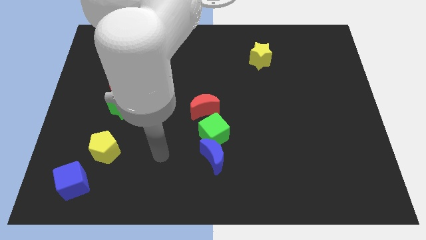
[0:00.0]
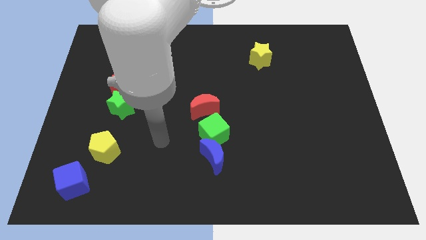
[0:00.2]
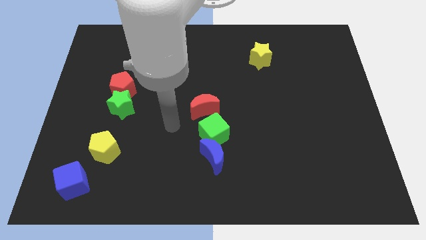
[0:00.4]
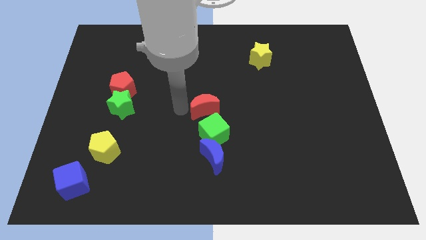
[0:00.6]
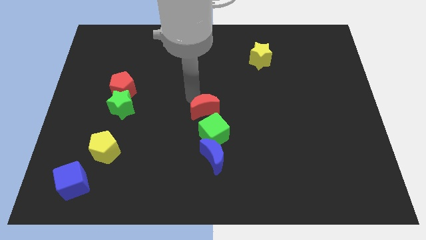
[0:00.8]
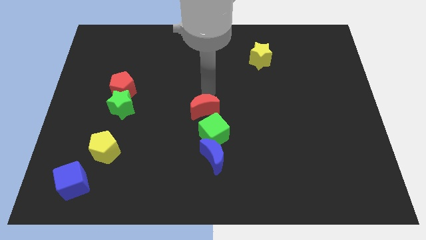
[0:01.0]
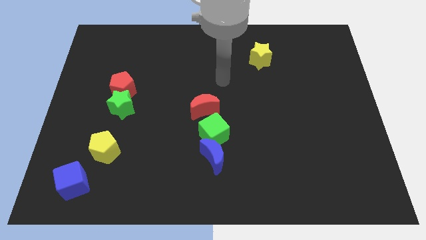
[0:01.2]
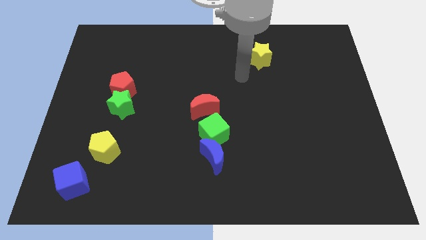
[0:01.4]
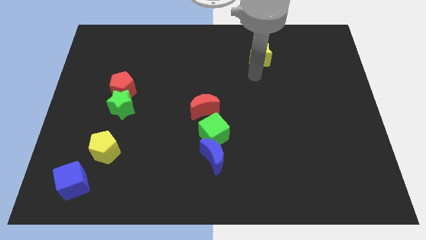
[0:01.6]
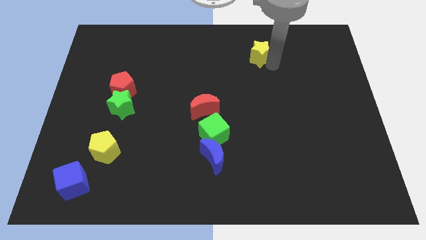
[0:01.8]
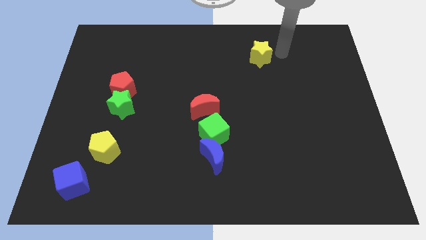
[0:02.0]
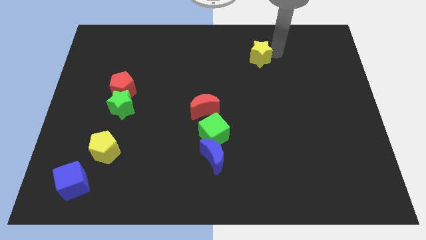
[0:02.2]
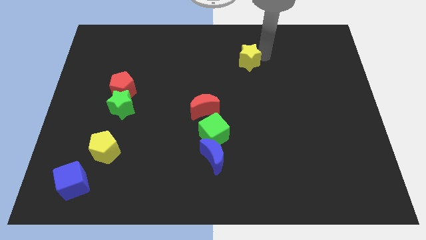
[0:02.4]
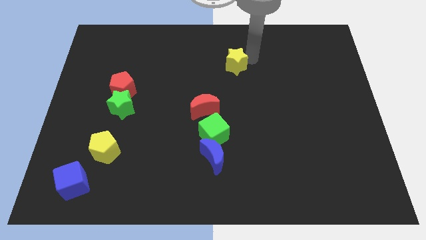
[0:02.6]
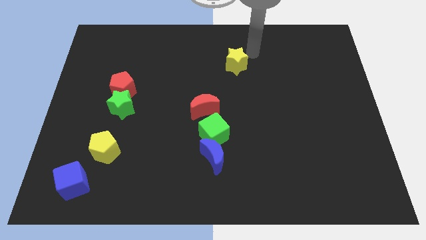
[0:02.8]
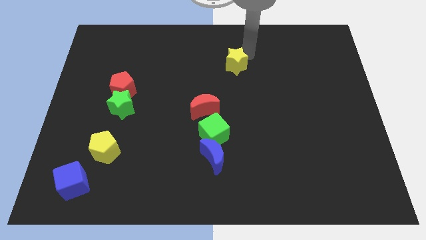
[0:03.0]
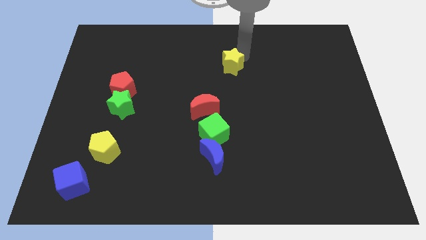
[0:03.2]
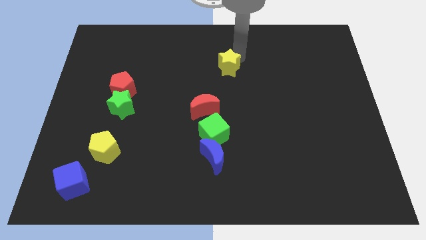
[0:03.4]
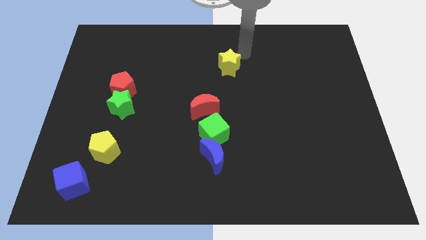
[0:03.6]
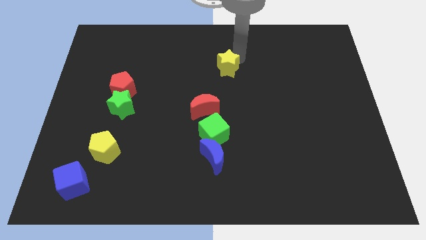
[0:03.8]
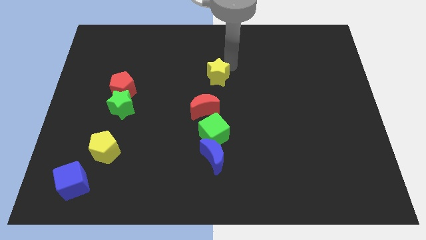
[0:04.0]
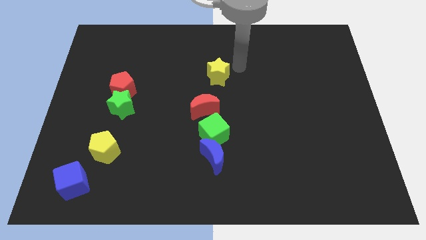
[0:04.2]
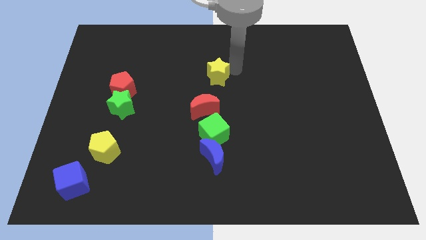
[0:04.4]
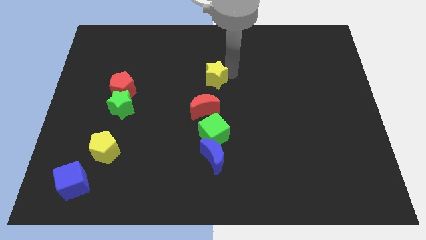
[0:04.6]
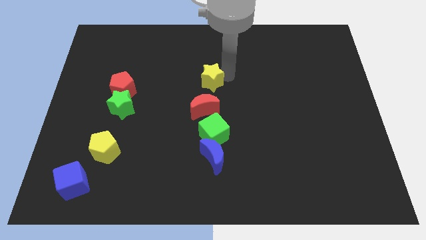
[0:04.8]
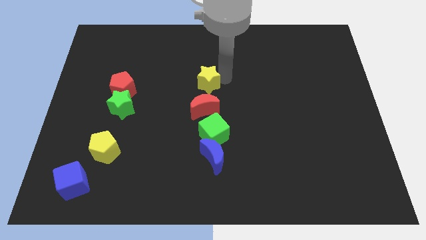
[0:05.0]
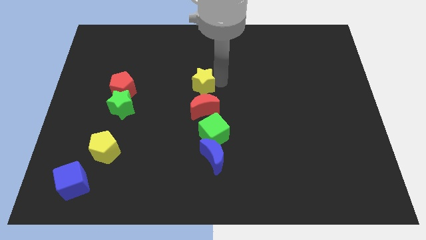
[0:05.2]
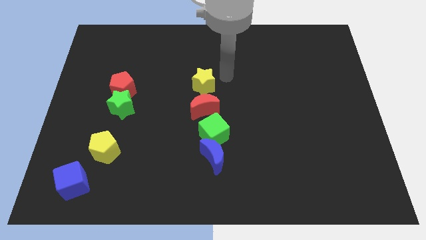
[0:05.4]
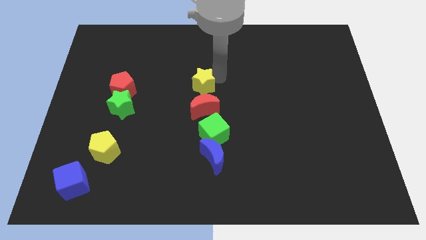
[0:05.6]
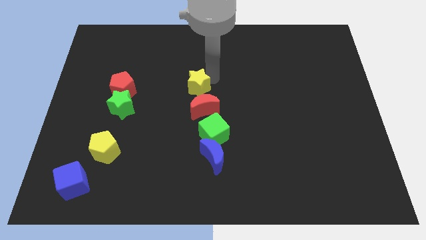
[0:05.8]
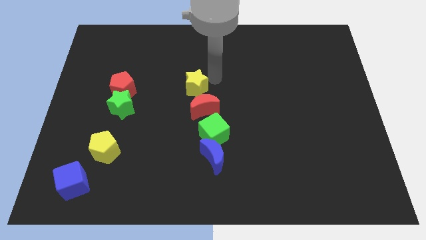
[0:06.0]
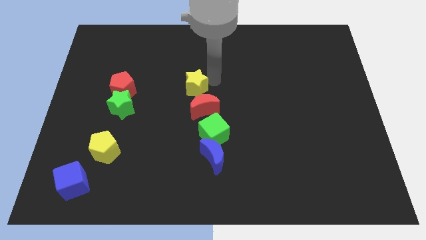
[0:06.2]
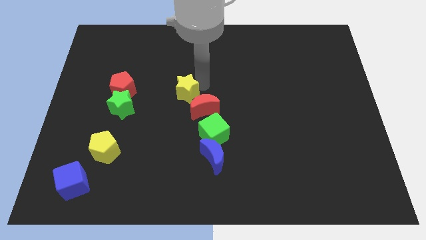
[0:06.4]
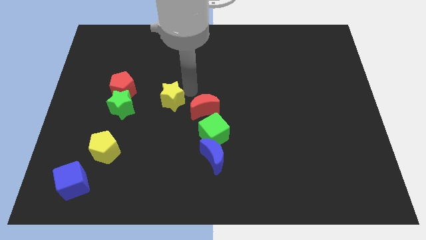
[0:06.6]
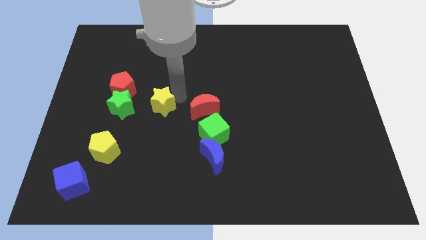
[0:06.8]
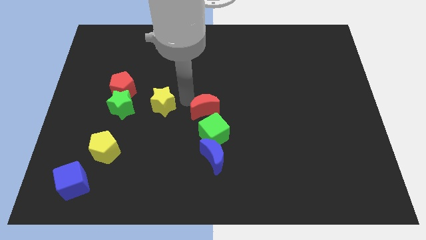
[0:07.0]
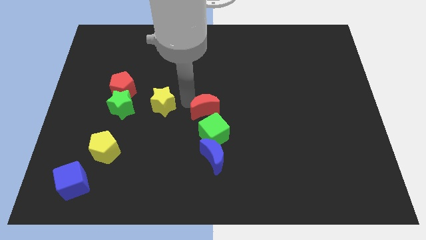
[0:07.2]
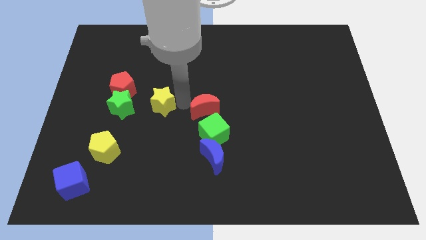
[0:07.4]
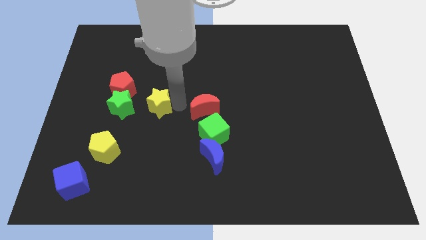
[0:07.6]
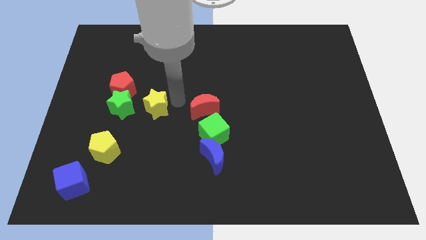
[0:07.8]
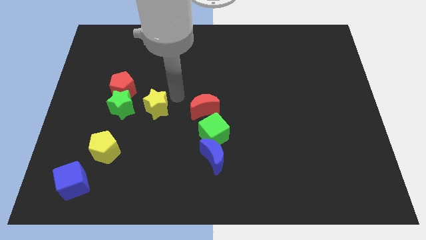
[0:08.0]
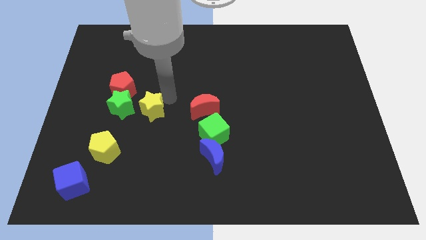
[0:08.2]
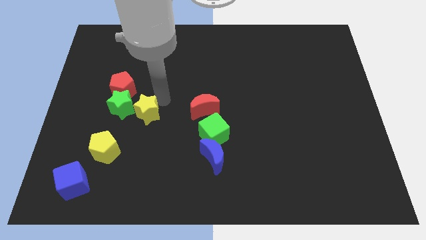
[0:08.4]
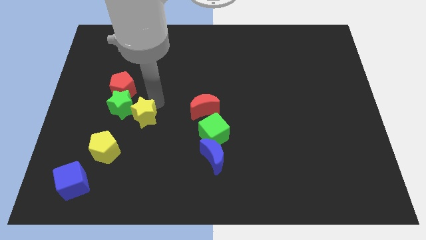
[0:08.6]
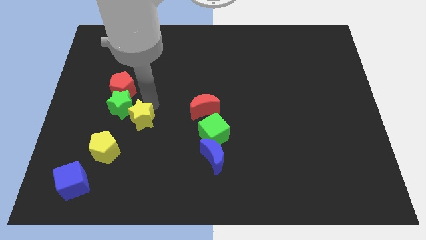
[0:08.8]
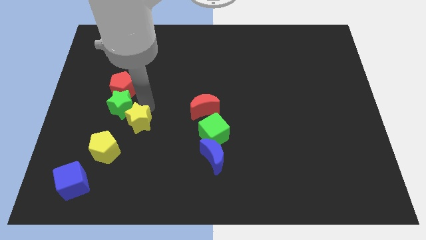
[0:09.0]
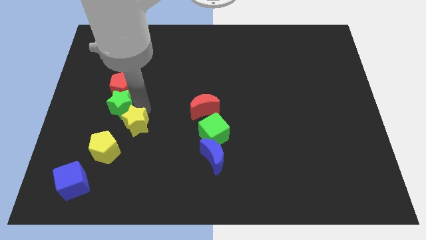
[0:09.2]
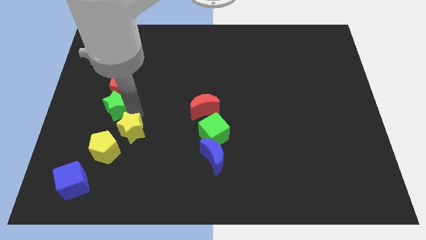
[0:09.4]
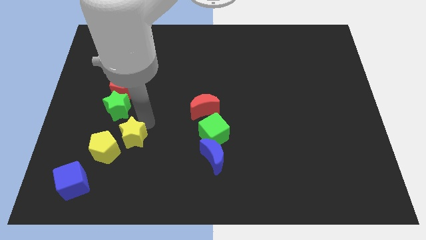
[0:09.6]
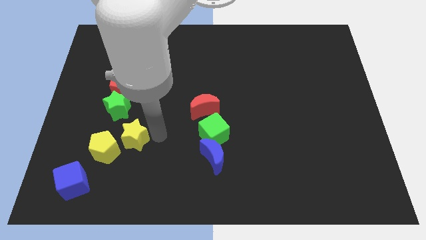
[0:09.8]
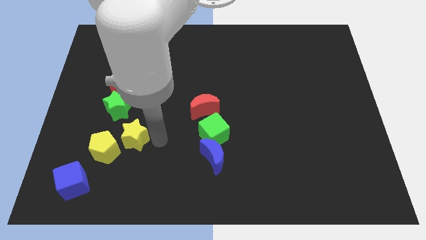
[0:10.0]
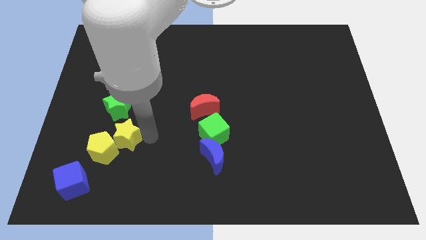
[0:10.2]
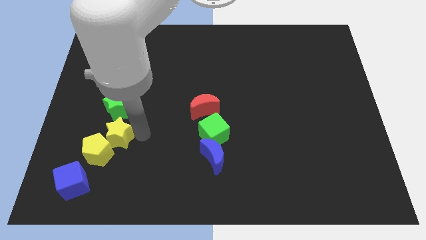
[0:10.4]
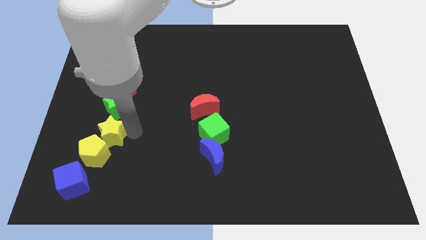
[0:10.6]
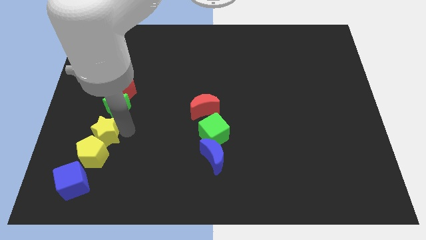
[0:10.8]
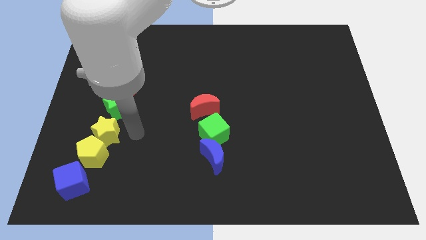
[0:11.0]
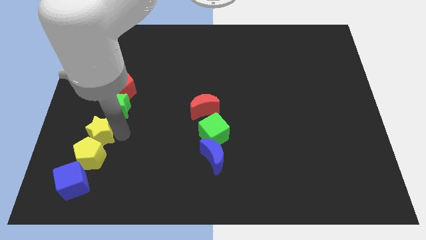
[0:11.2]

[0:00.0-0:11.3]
push the yellow star to the top left side of the yellow pentagon

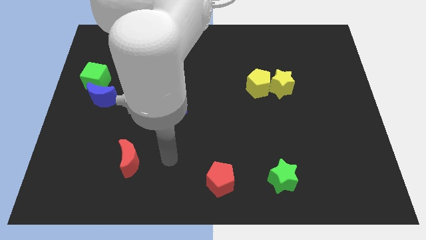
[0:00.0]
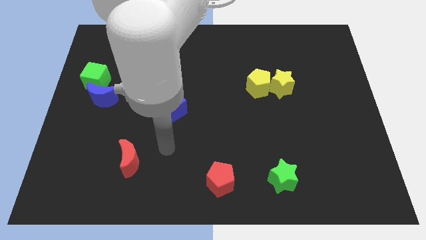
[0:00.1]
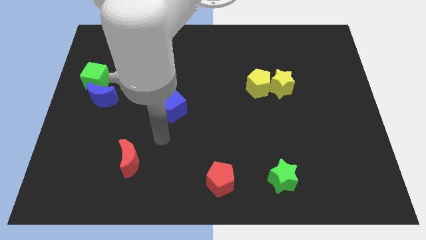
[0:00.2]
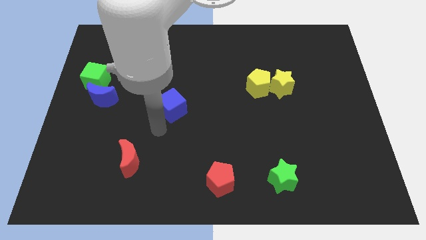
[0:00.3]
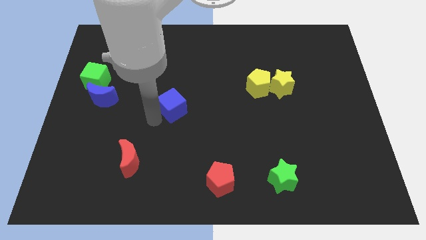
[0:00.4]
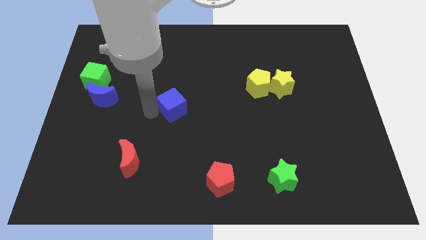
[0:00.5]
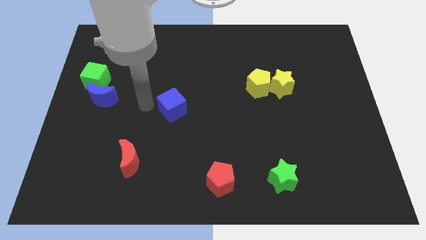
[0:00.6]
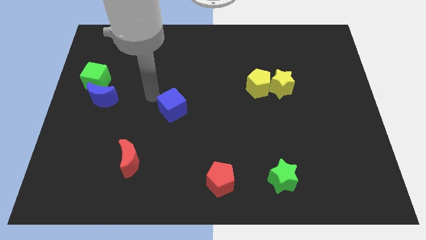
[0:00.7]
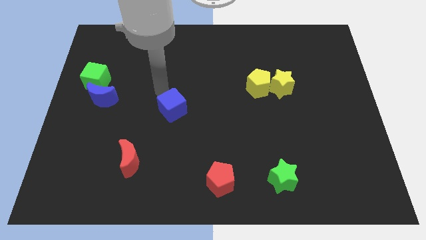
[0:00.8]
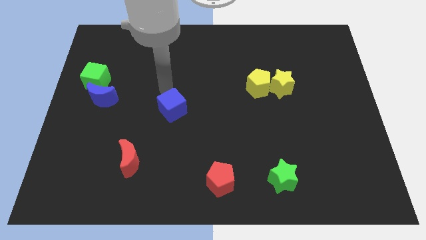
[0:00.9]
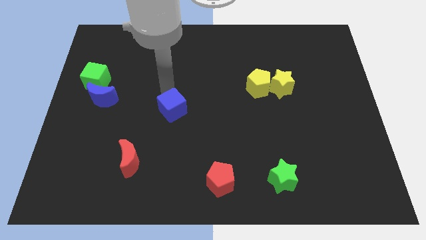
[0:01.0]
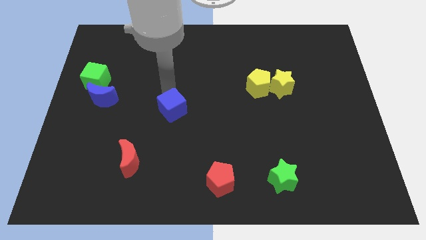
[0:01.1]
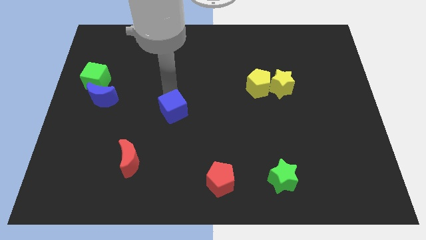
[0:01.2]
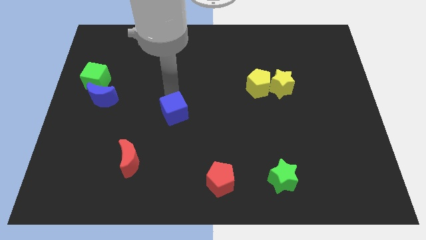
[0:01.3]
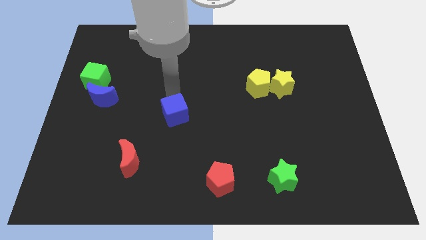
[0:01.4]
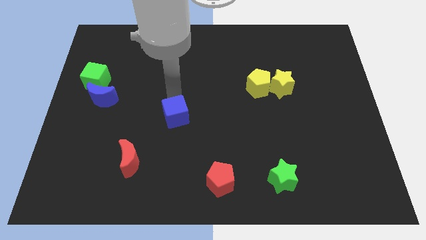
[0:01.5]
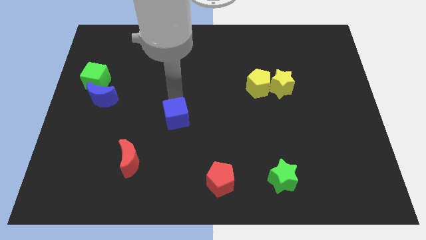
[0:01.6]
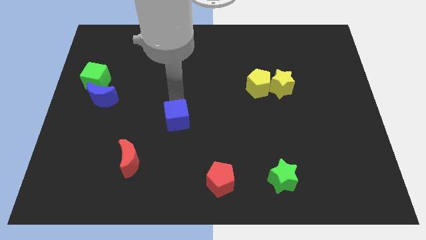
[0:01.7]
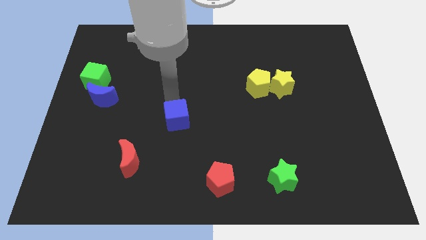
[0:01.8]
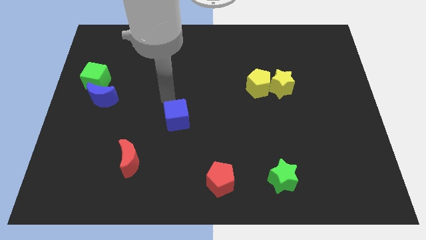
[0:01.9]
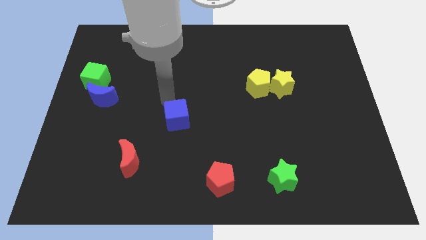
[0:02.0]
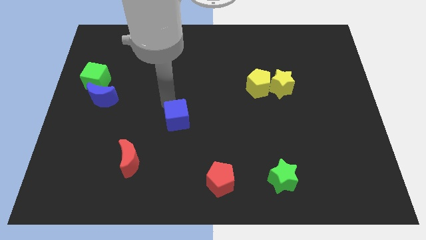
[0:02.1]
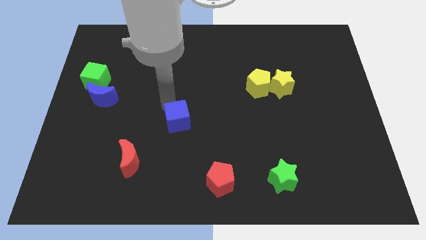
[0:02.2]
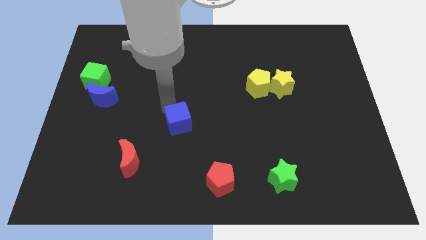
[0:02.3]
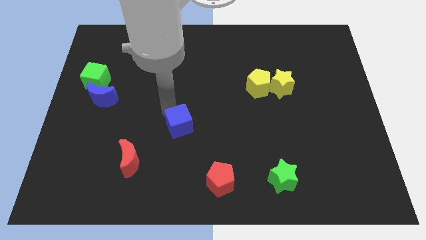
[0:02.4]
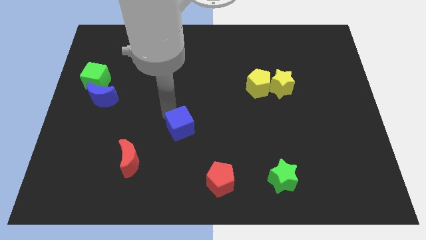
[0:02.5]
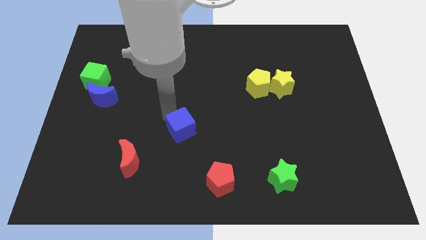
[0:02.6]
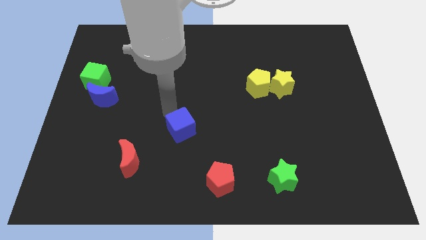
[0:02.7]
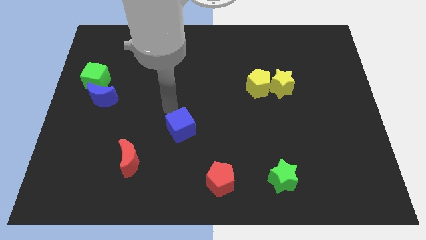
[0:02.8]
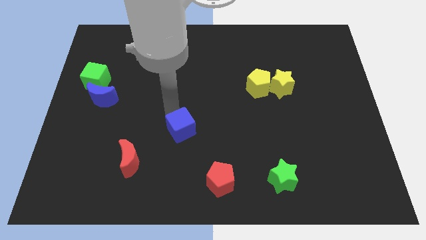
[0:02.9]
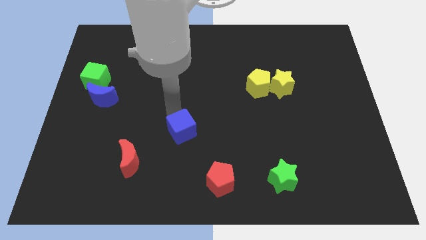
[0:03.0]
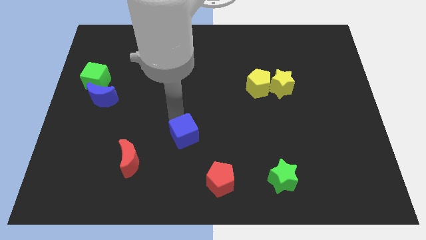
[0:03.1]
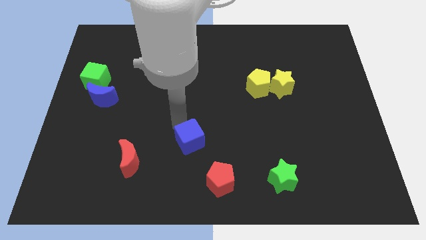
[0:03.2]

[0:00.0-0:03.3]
move the blue cube to the top left of the red pentagon
